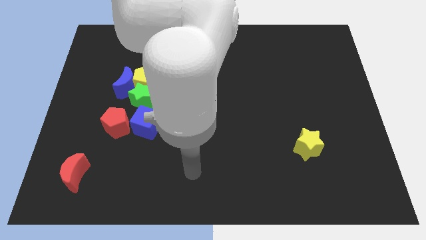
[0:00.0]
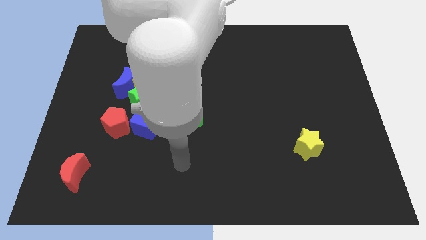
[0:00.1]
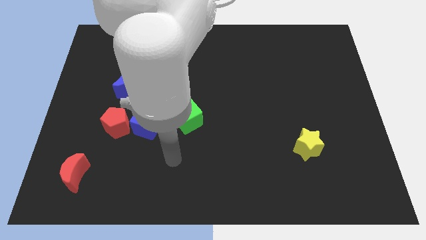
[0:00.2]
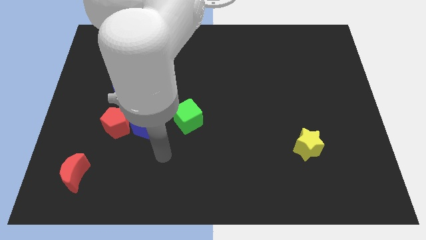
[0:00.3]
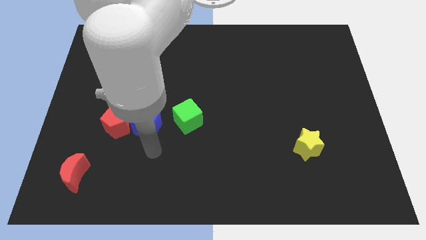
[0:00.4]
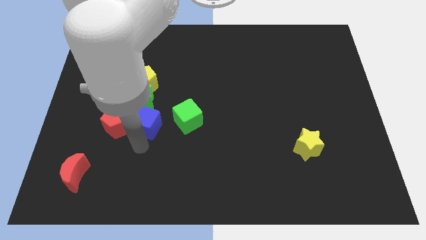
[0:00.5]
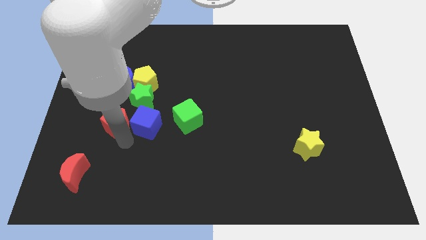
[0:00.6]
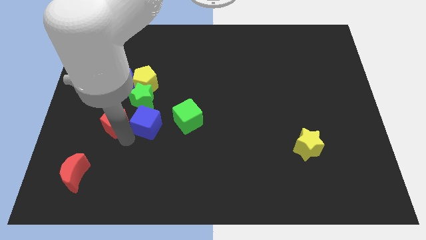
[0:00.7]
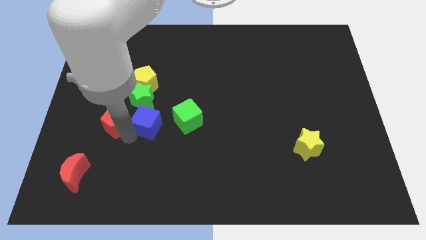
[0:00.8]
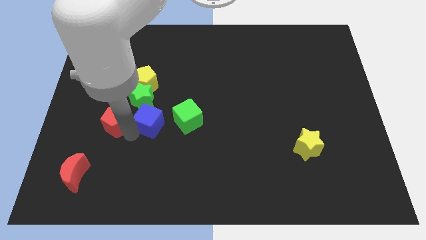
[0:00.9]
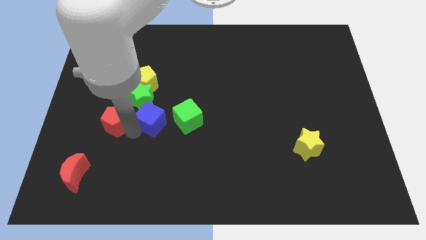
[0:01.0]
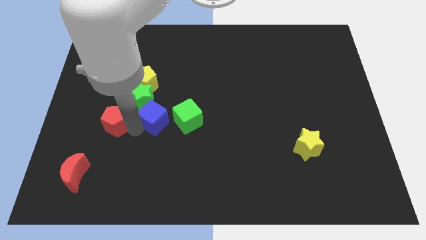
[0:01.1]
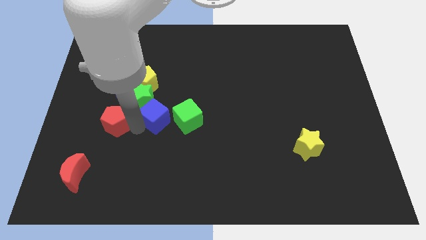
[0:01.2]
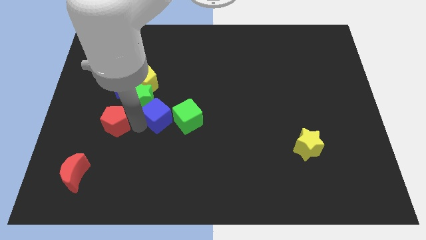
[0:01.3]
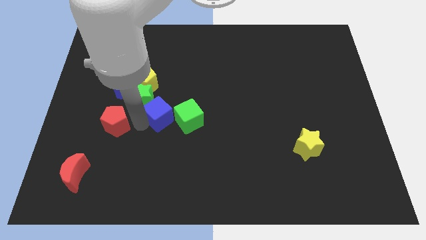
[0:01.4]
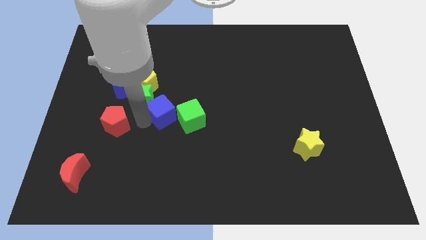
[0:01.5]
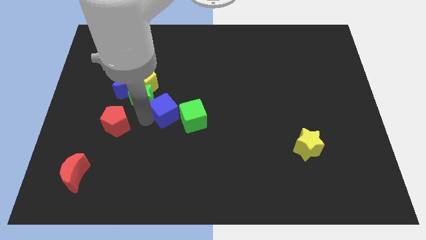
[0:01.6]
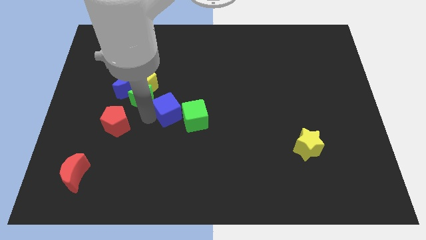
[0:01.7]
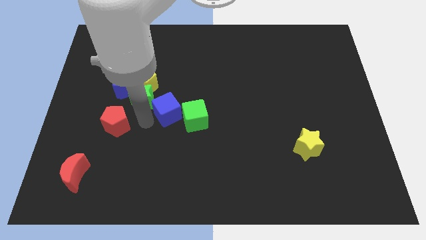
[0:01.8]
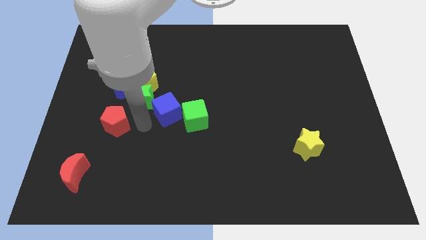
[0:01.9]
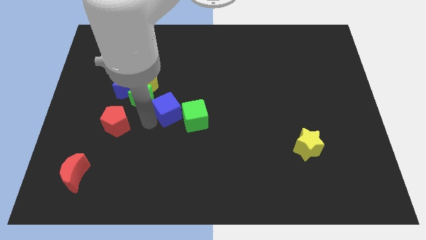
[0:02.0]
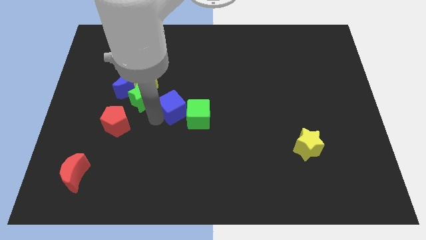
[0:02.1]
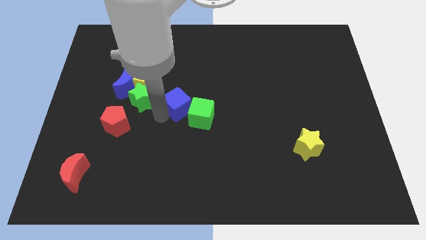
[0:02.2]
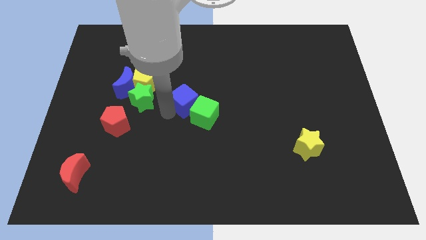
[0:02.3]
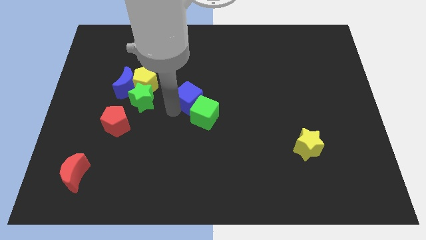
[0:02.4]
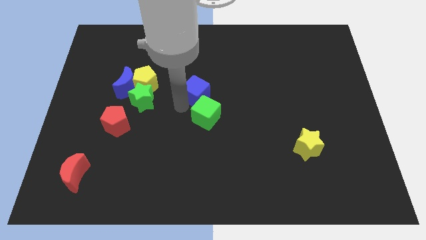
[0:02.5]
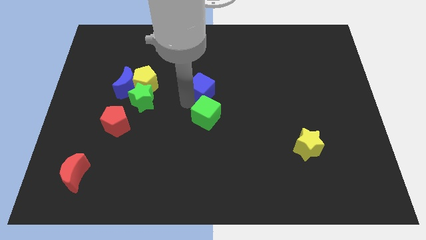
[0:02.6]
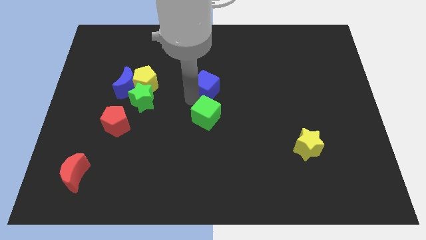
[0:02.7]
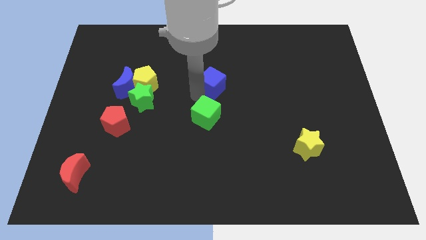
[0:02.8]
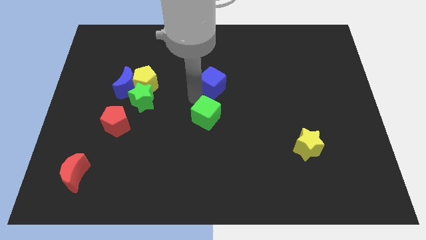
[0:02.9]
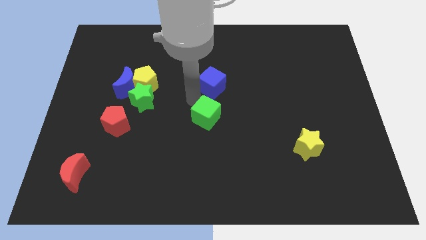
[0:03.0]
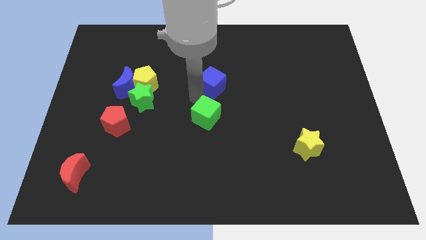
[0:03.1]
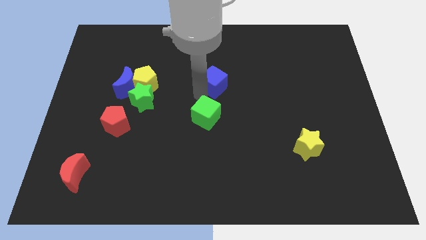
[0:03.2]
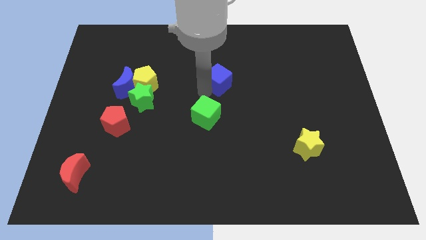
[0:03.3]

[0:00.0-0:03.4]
slide the blue cube diagonally up and right

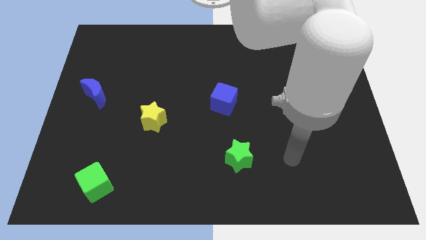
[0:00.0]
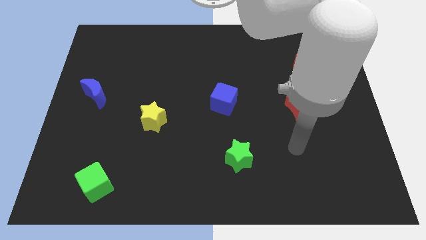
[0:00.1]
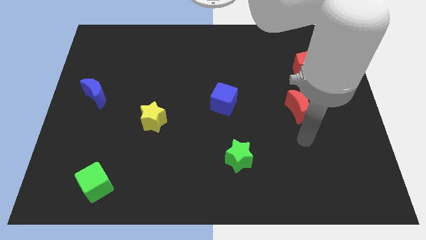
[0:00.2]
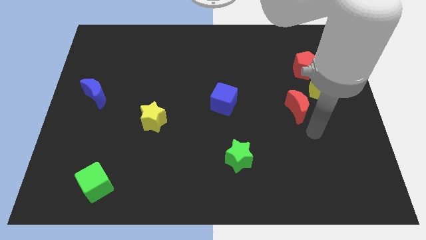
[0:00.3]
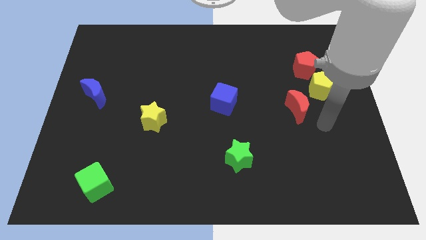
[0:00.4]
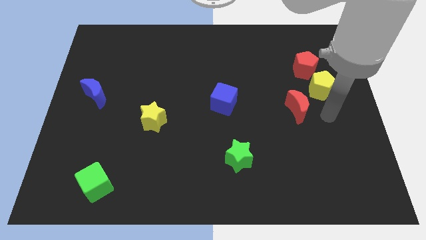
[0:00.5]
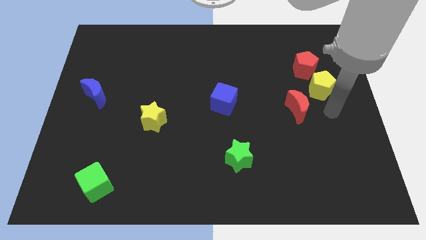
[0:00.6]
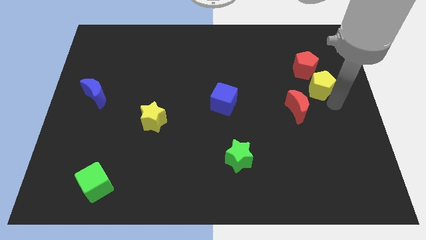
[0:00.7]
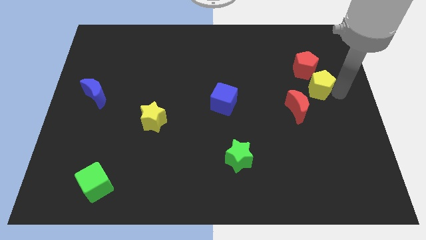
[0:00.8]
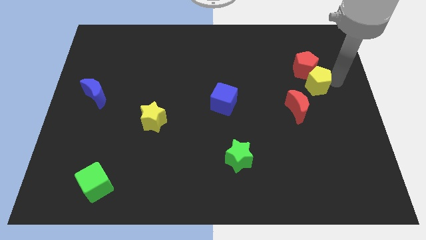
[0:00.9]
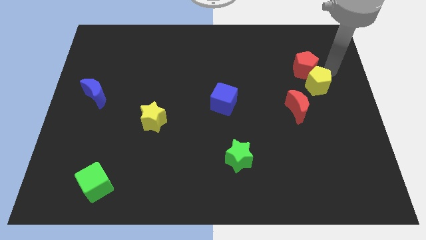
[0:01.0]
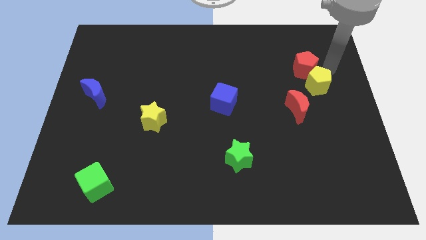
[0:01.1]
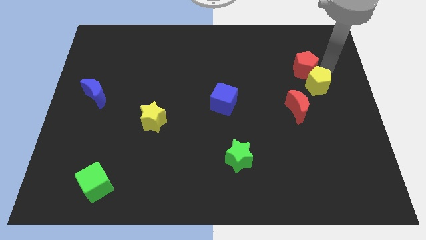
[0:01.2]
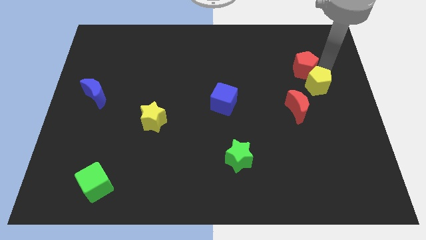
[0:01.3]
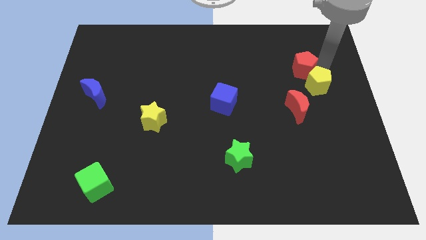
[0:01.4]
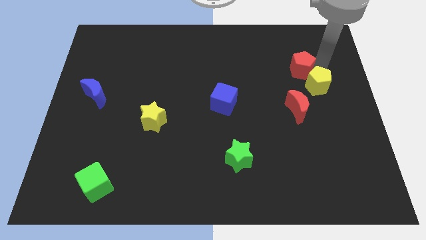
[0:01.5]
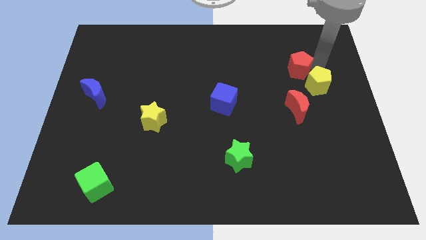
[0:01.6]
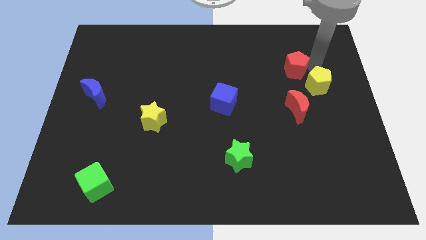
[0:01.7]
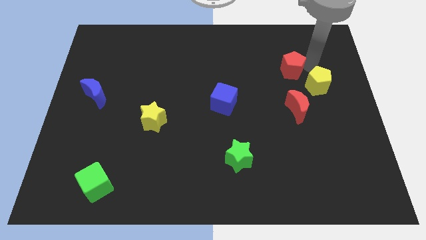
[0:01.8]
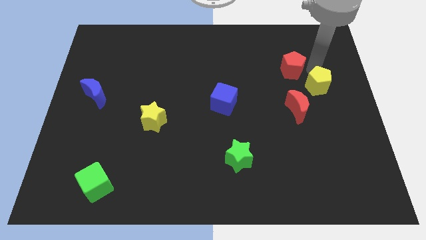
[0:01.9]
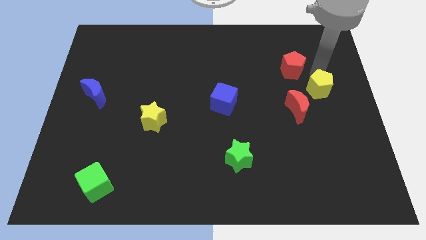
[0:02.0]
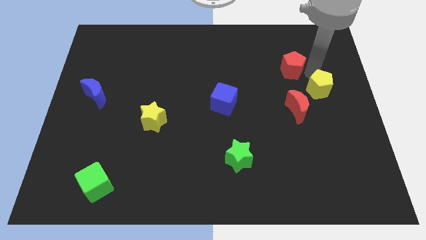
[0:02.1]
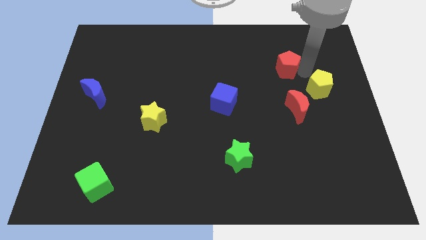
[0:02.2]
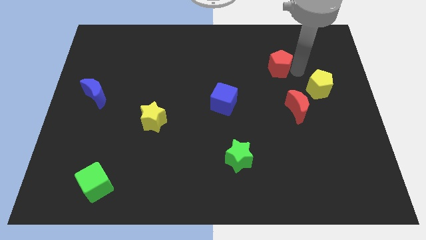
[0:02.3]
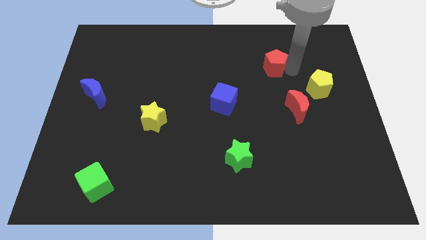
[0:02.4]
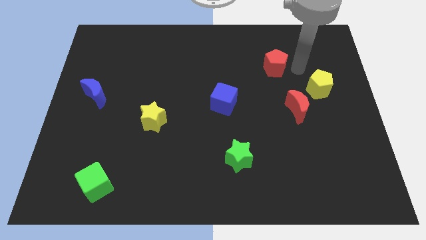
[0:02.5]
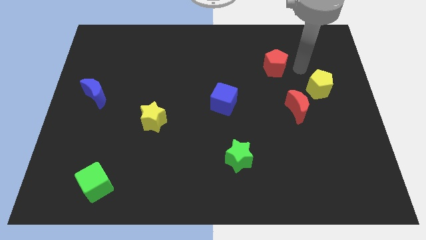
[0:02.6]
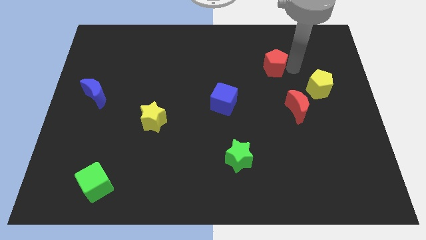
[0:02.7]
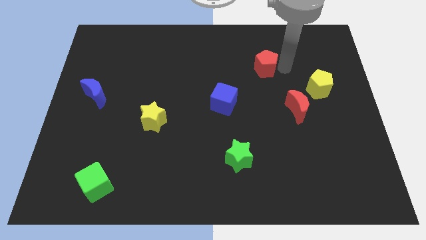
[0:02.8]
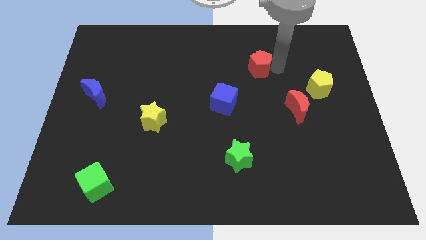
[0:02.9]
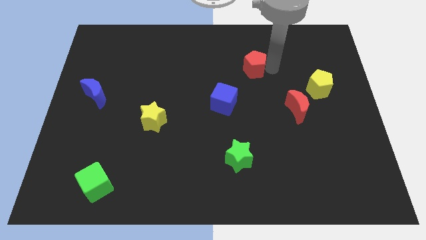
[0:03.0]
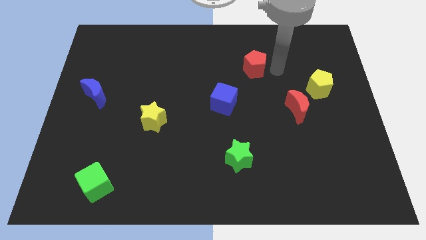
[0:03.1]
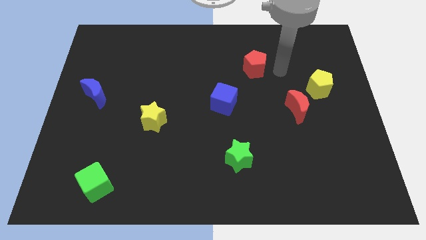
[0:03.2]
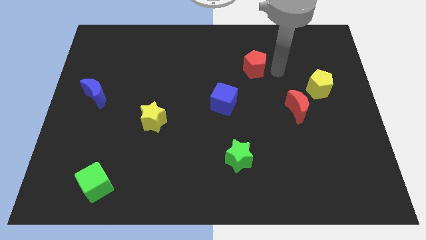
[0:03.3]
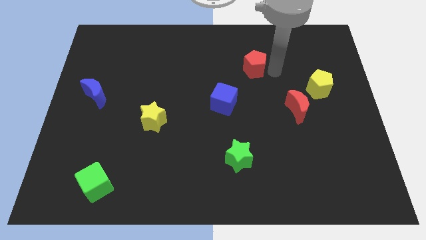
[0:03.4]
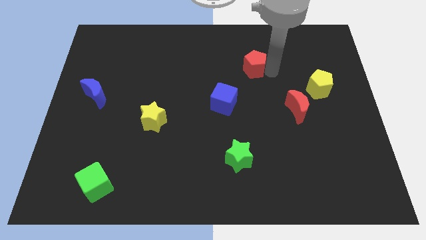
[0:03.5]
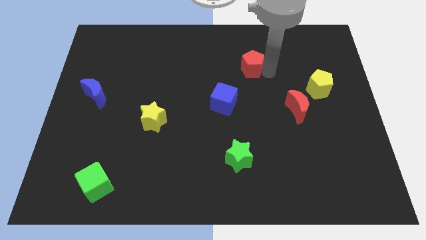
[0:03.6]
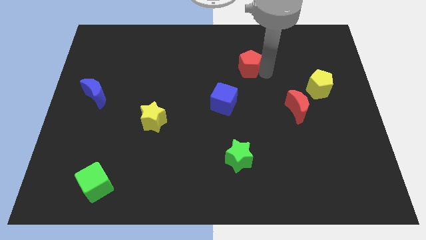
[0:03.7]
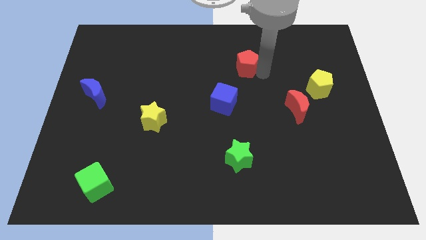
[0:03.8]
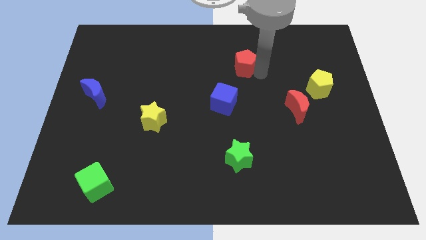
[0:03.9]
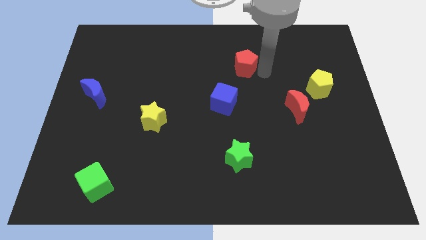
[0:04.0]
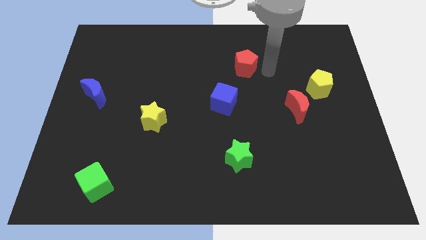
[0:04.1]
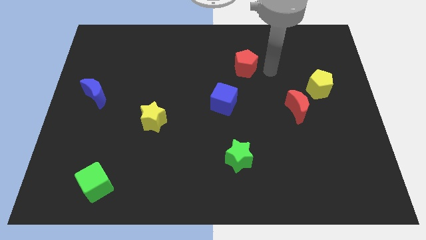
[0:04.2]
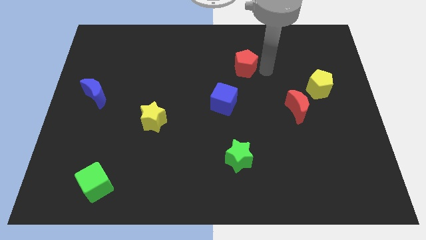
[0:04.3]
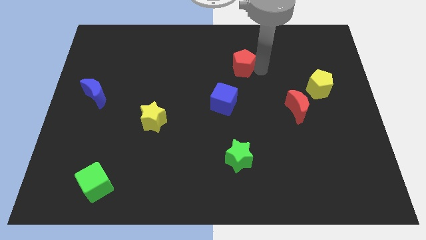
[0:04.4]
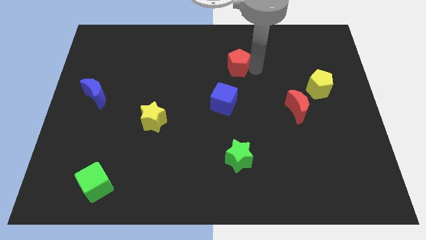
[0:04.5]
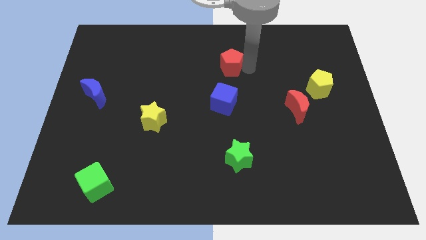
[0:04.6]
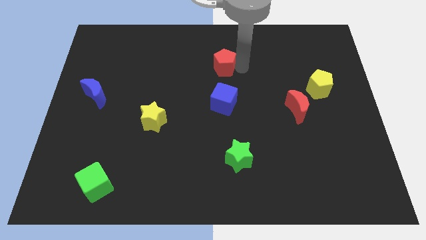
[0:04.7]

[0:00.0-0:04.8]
slide the red pentagon left
